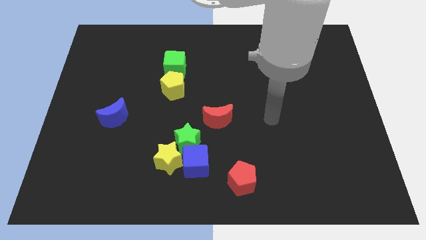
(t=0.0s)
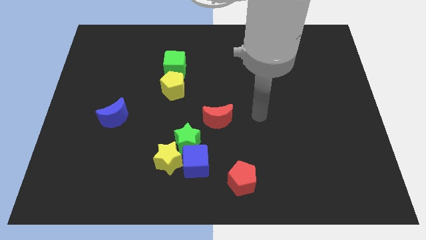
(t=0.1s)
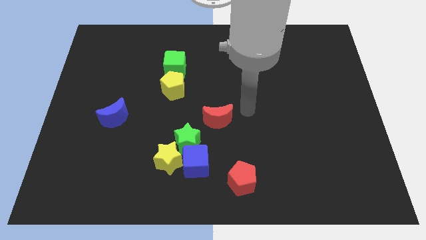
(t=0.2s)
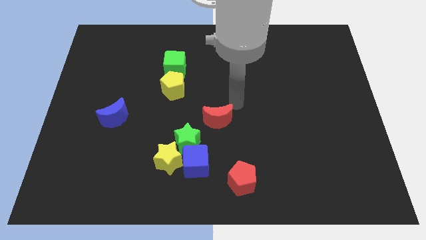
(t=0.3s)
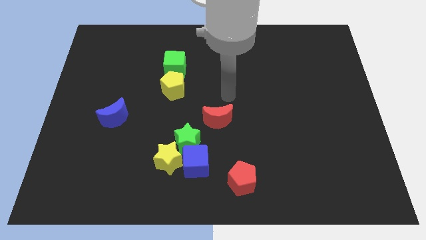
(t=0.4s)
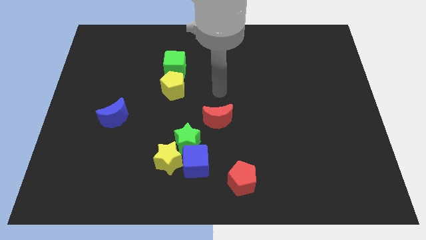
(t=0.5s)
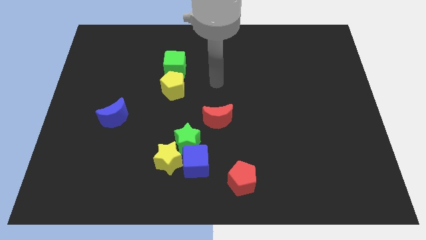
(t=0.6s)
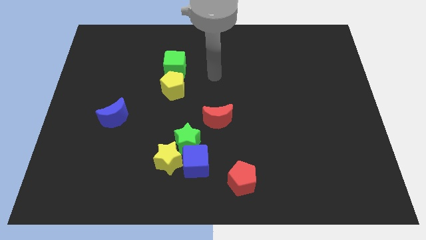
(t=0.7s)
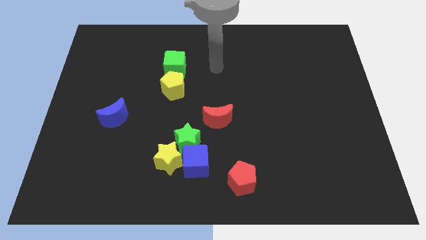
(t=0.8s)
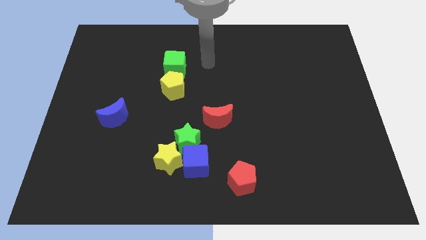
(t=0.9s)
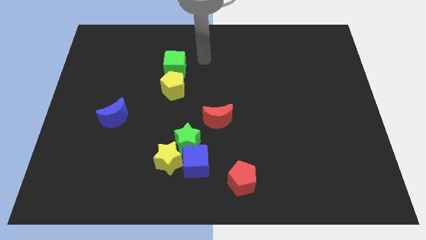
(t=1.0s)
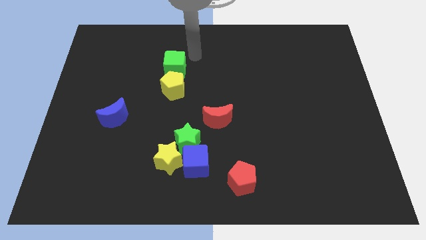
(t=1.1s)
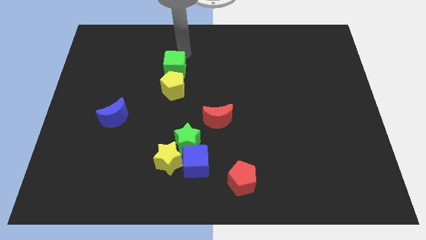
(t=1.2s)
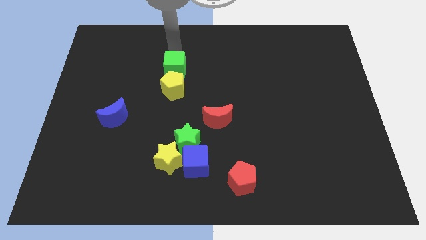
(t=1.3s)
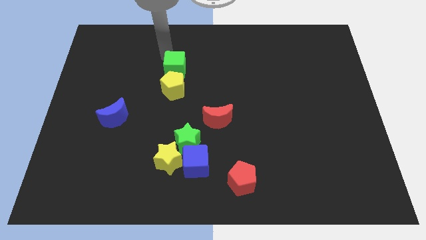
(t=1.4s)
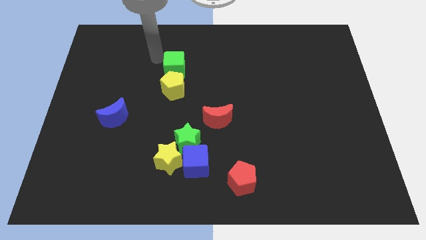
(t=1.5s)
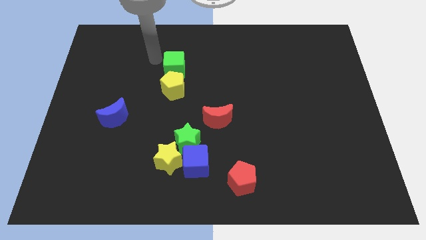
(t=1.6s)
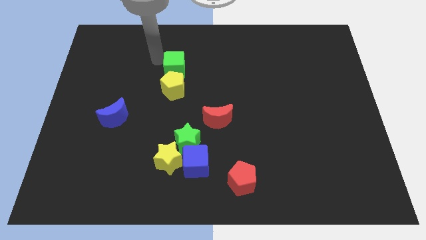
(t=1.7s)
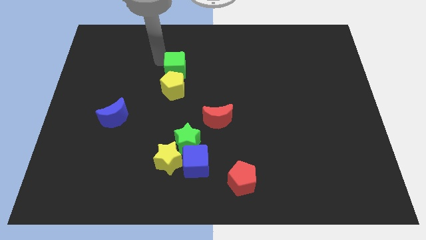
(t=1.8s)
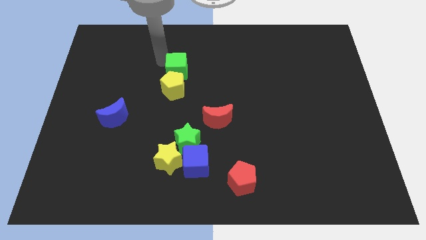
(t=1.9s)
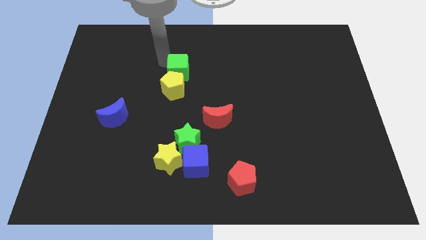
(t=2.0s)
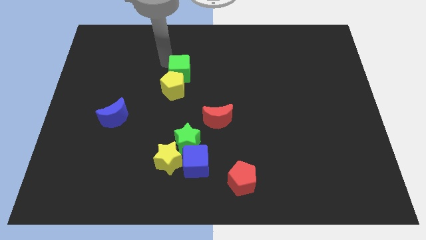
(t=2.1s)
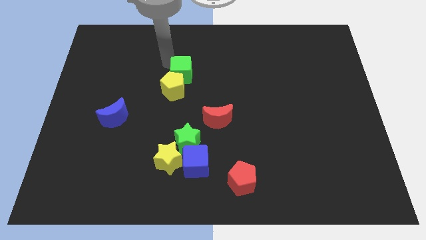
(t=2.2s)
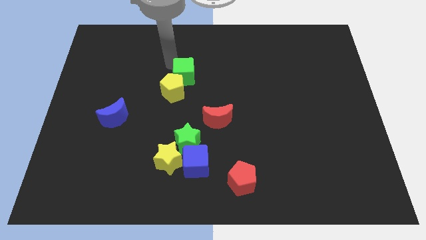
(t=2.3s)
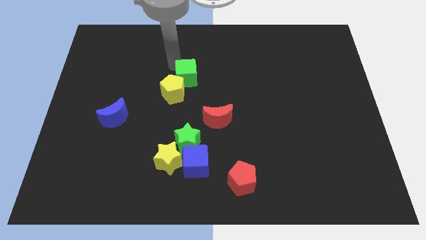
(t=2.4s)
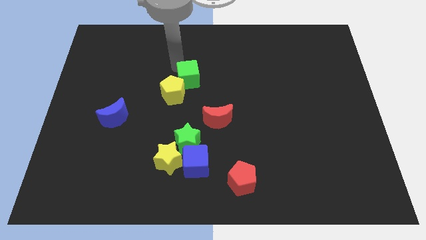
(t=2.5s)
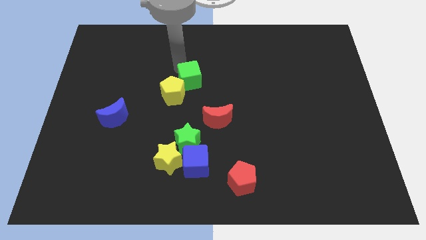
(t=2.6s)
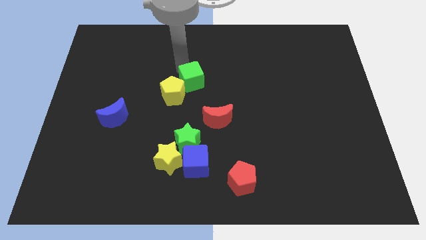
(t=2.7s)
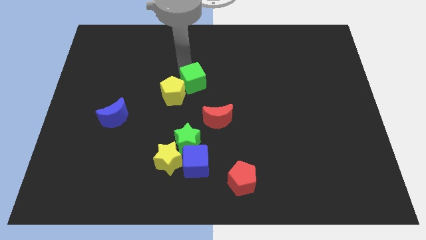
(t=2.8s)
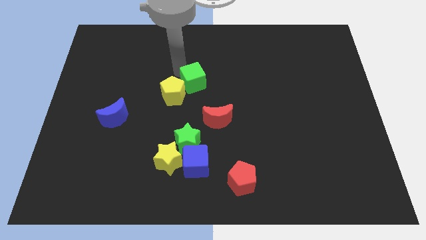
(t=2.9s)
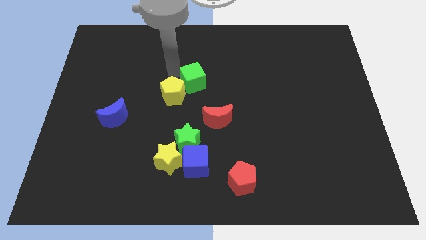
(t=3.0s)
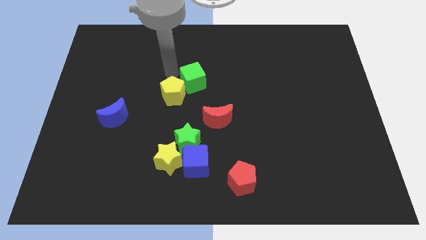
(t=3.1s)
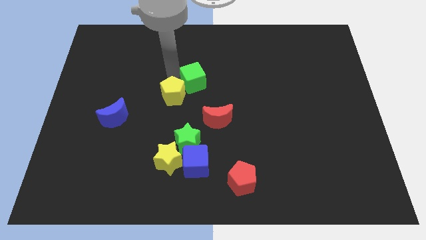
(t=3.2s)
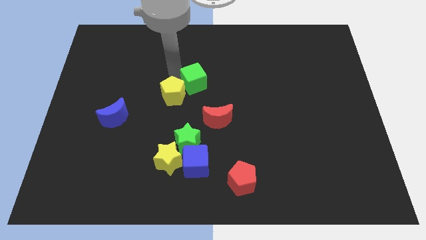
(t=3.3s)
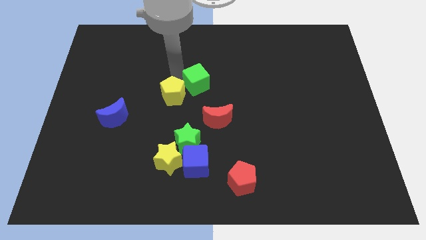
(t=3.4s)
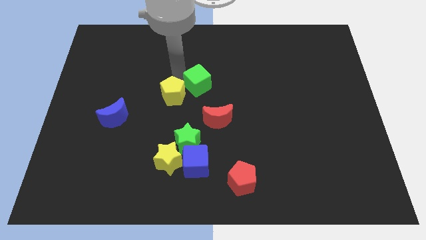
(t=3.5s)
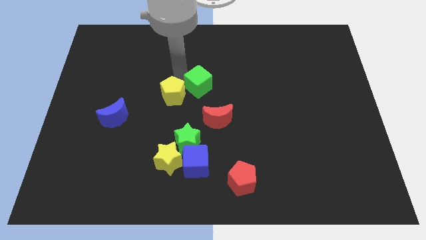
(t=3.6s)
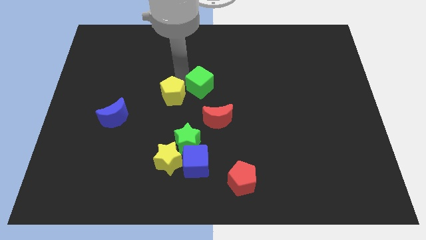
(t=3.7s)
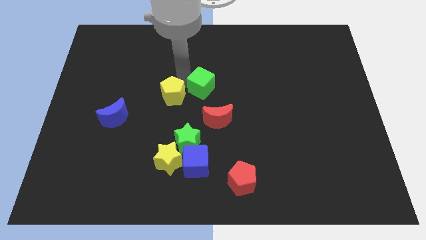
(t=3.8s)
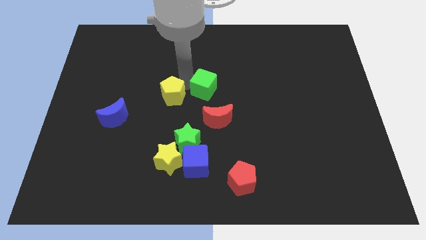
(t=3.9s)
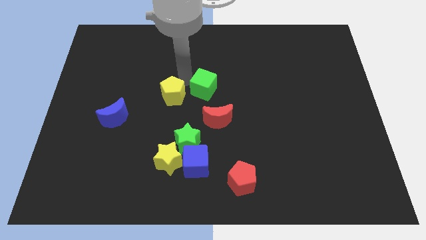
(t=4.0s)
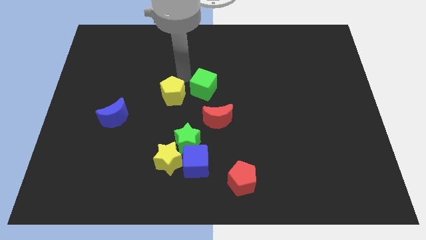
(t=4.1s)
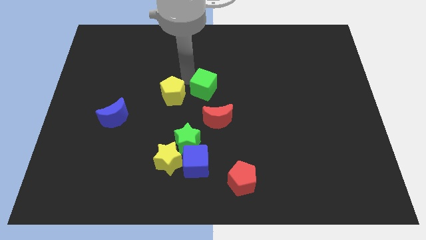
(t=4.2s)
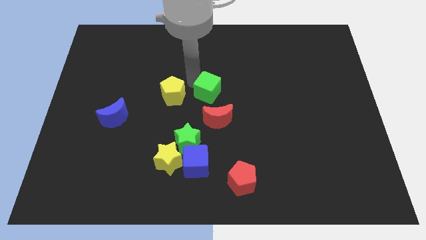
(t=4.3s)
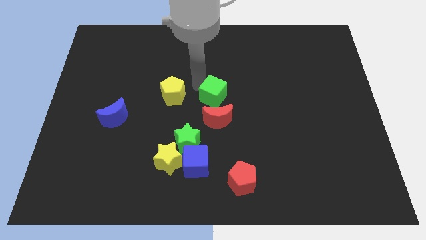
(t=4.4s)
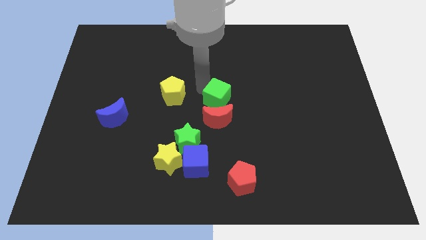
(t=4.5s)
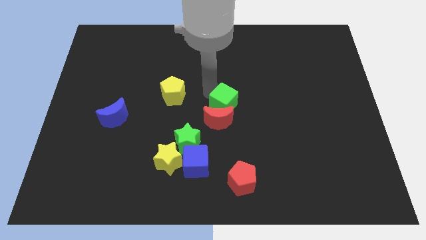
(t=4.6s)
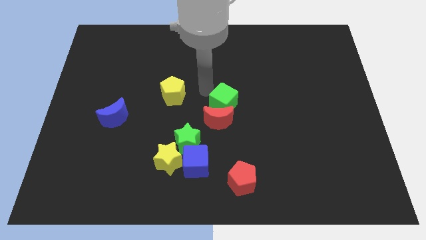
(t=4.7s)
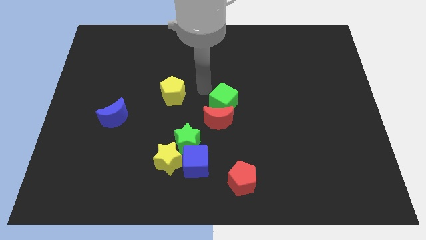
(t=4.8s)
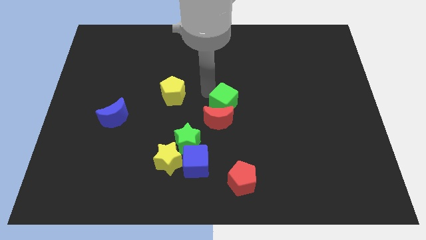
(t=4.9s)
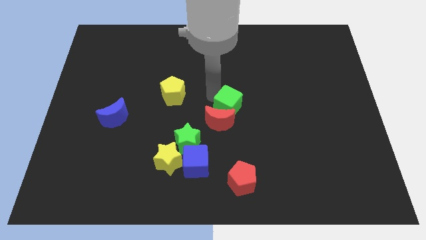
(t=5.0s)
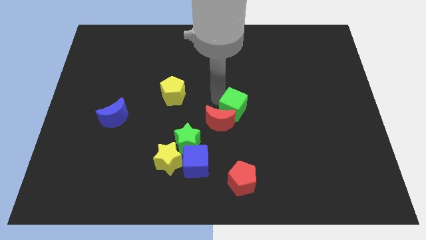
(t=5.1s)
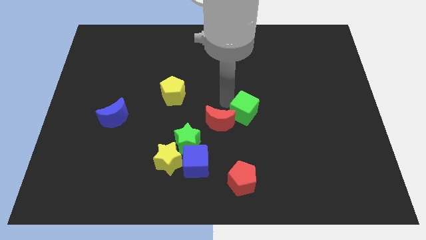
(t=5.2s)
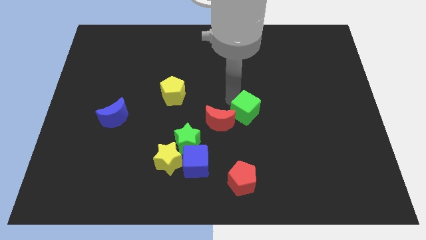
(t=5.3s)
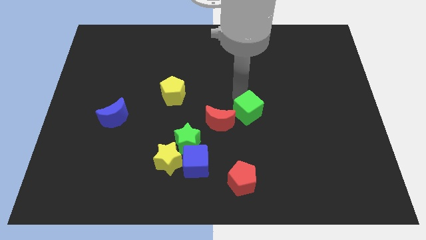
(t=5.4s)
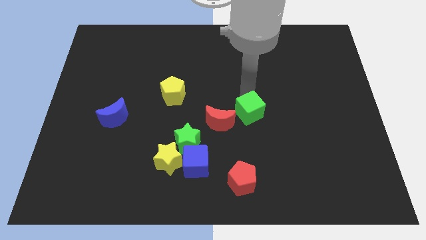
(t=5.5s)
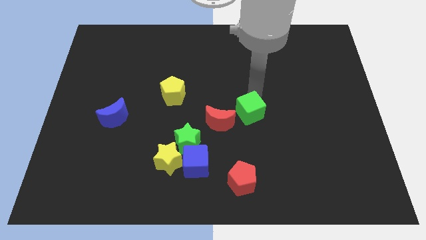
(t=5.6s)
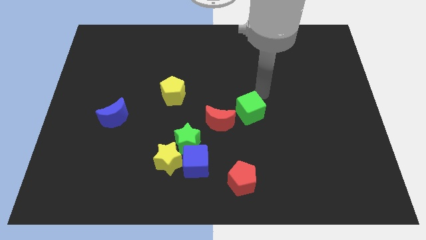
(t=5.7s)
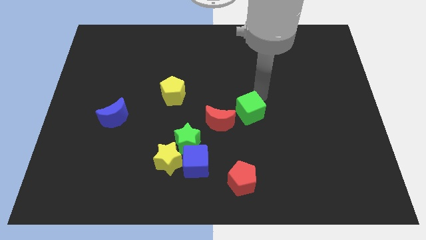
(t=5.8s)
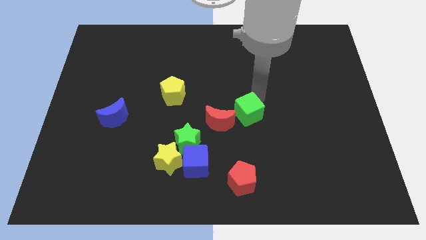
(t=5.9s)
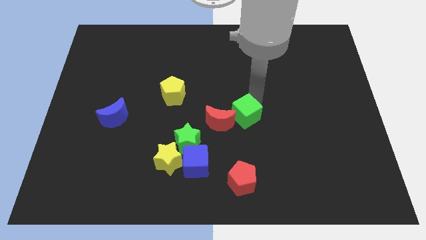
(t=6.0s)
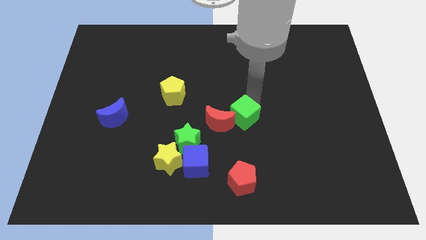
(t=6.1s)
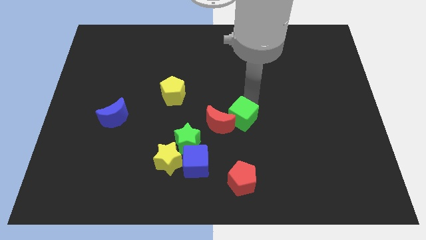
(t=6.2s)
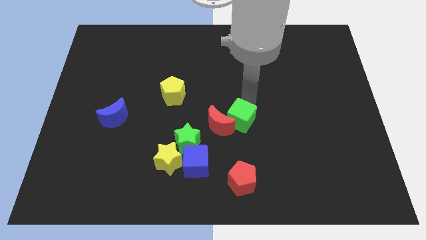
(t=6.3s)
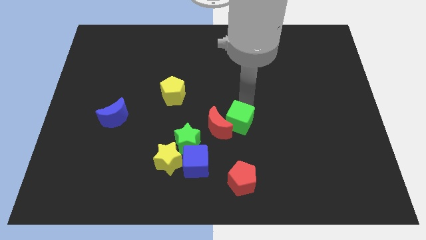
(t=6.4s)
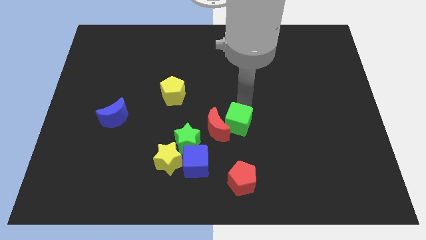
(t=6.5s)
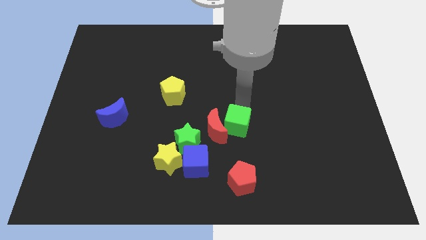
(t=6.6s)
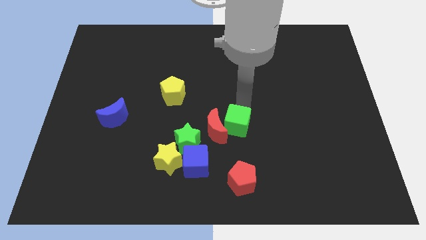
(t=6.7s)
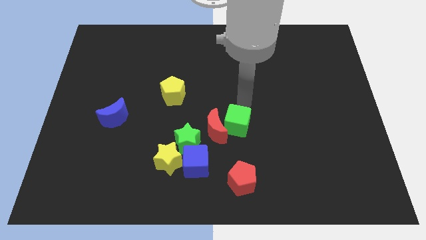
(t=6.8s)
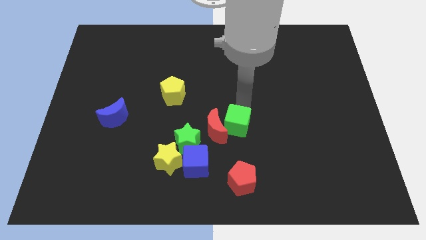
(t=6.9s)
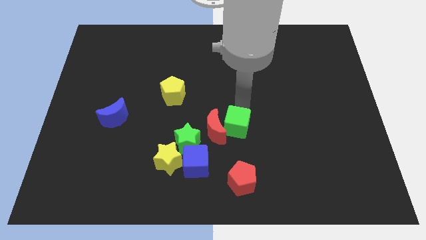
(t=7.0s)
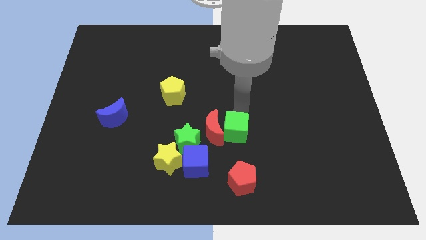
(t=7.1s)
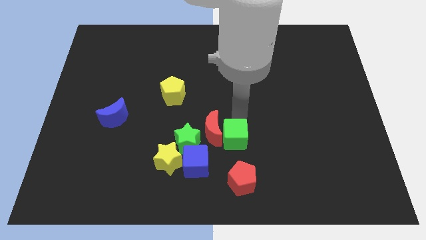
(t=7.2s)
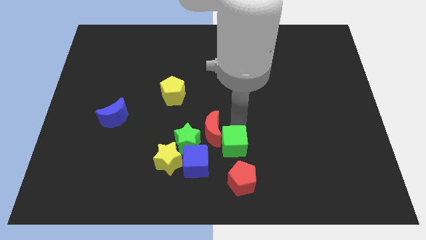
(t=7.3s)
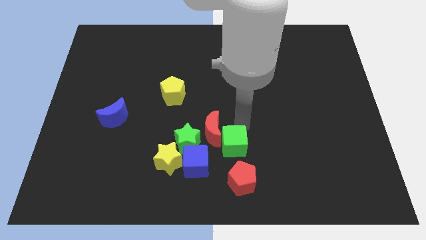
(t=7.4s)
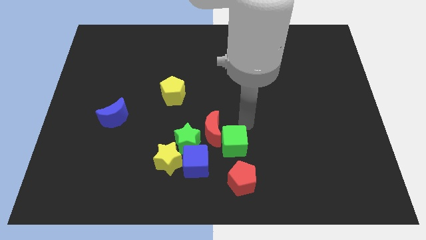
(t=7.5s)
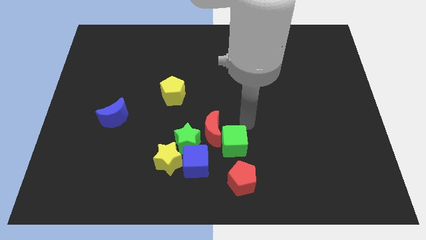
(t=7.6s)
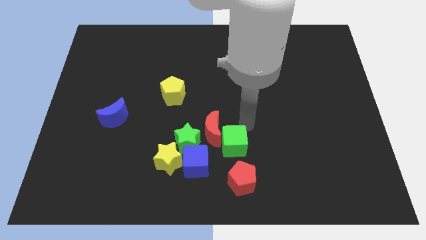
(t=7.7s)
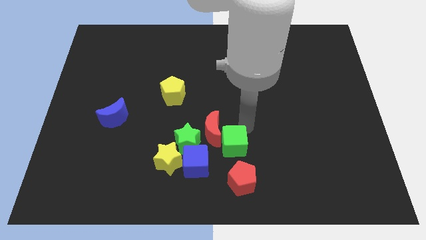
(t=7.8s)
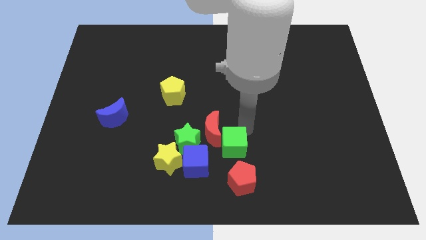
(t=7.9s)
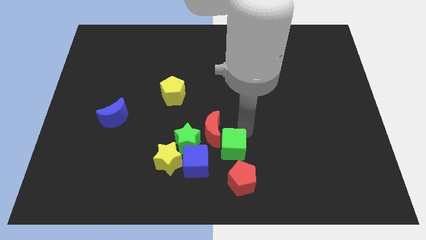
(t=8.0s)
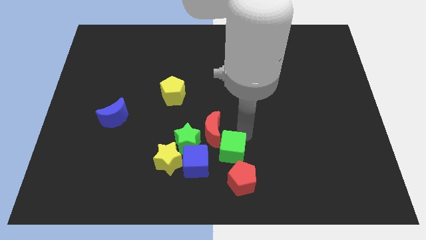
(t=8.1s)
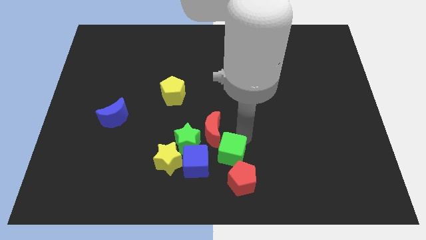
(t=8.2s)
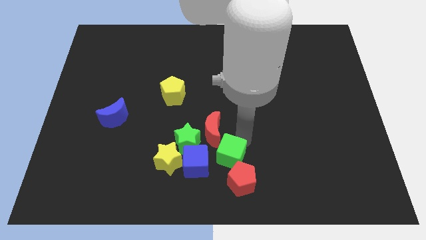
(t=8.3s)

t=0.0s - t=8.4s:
move the green cube to the bottom side
